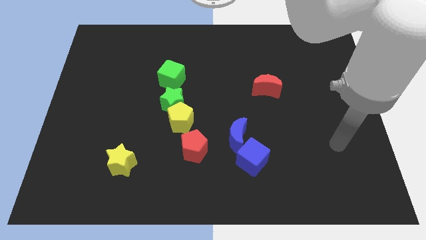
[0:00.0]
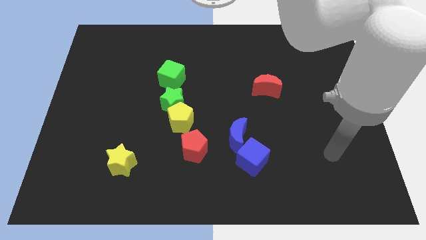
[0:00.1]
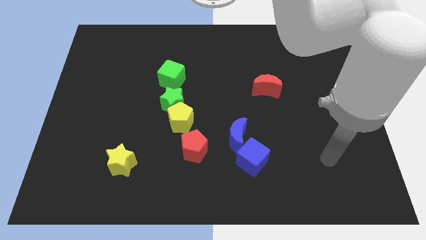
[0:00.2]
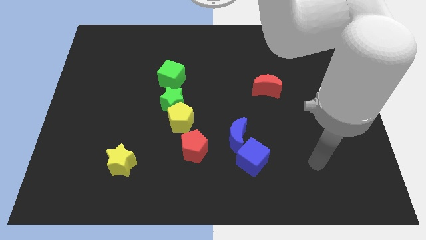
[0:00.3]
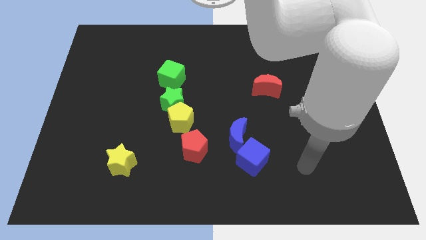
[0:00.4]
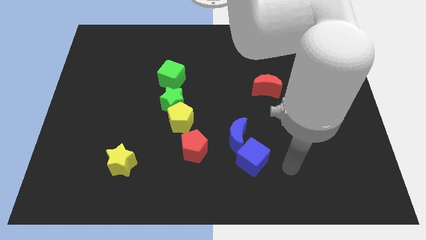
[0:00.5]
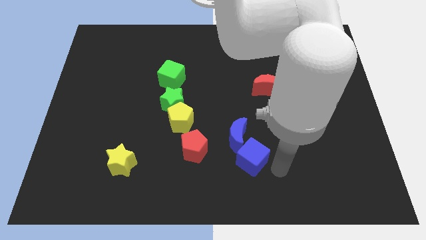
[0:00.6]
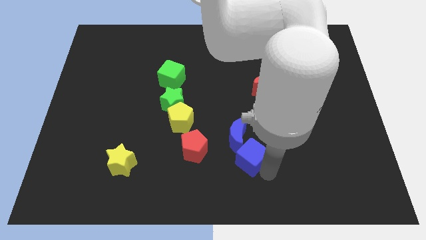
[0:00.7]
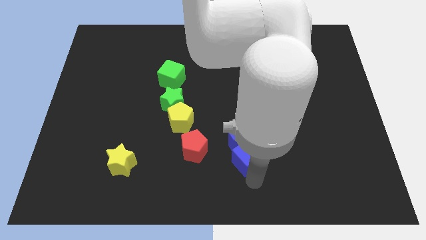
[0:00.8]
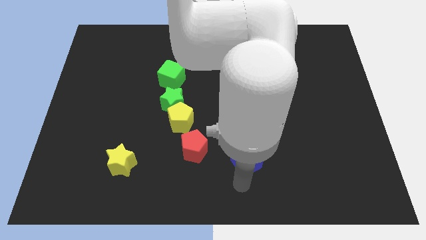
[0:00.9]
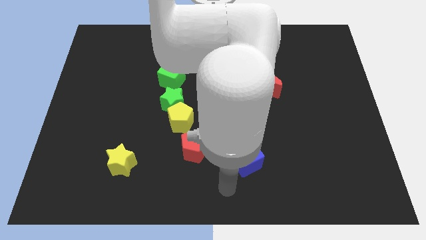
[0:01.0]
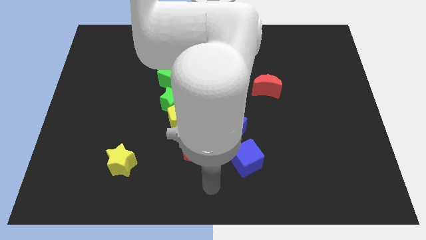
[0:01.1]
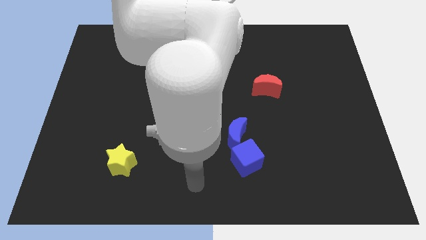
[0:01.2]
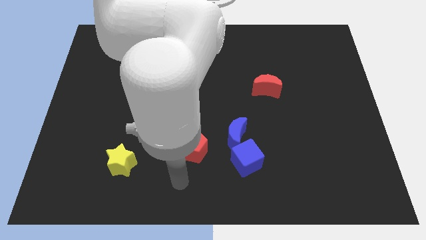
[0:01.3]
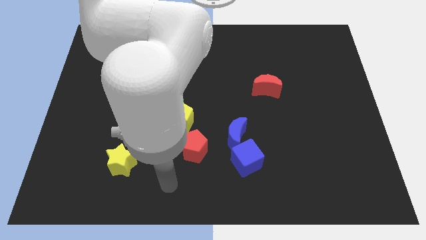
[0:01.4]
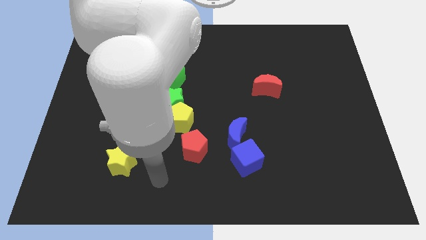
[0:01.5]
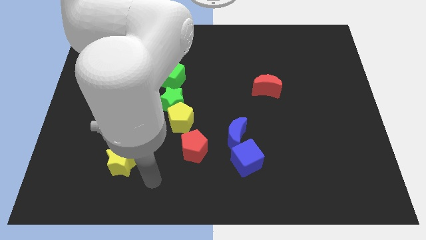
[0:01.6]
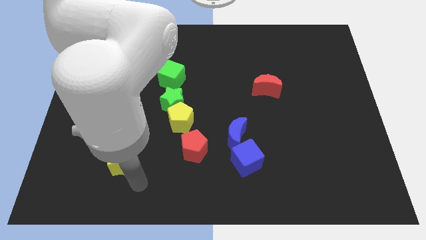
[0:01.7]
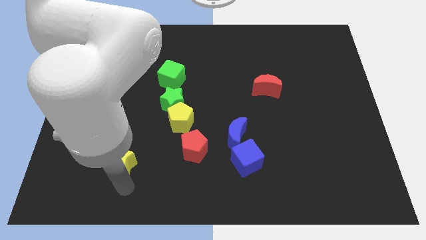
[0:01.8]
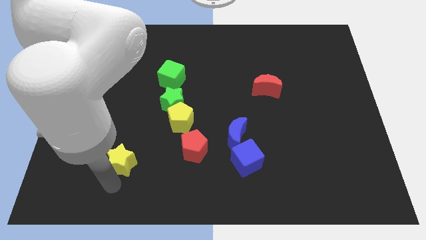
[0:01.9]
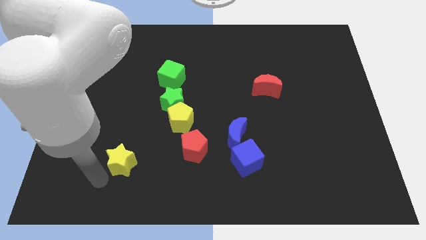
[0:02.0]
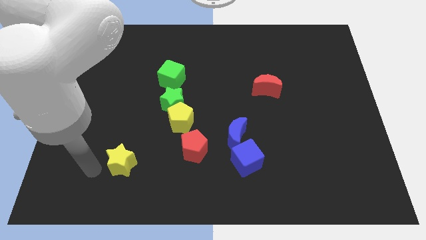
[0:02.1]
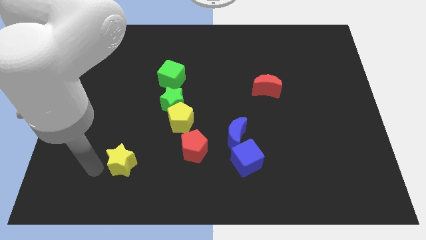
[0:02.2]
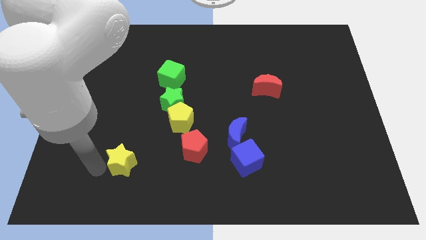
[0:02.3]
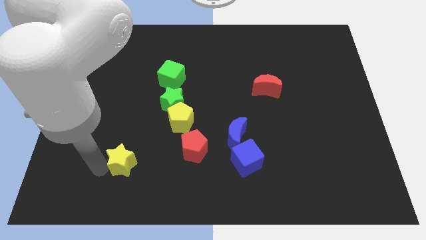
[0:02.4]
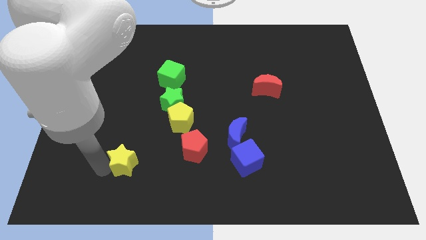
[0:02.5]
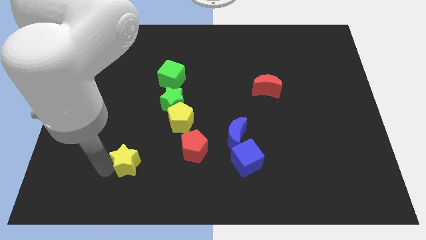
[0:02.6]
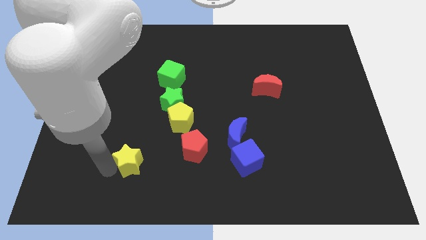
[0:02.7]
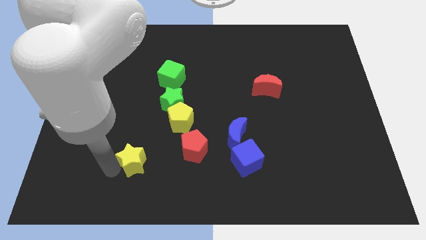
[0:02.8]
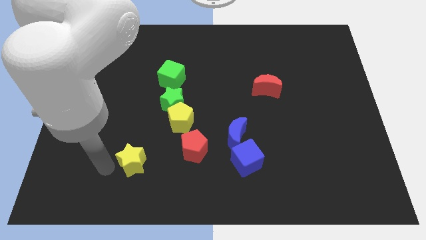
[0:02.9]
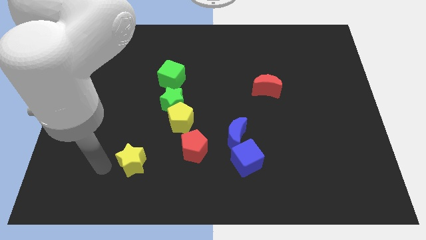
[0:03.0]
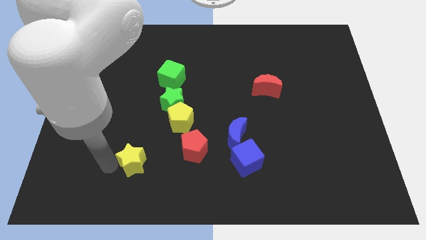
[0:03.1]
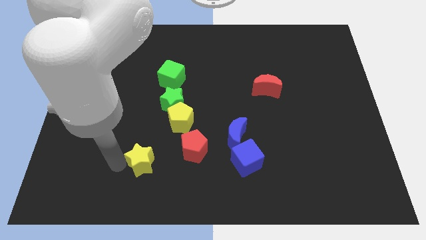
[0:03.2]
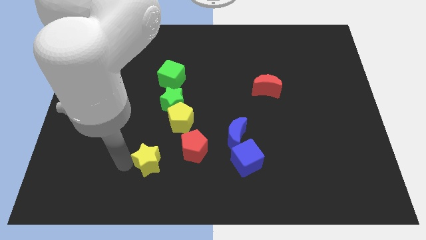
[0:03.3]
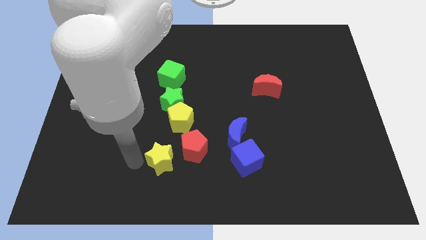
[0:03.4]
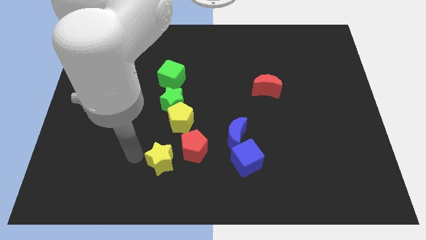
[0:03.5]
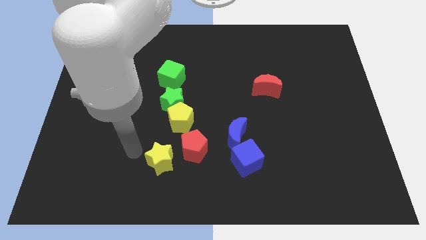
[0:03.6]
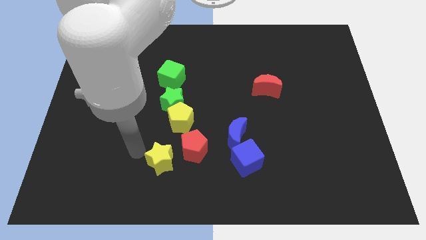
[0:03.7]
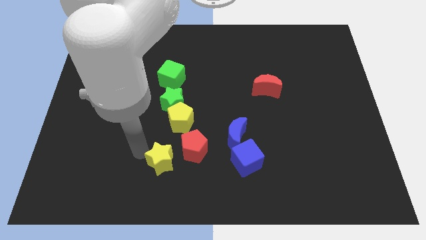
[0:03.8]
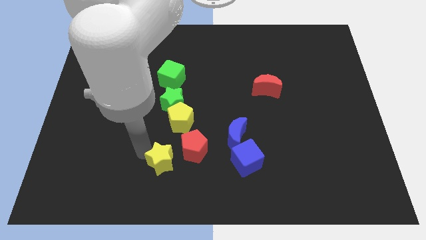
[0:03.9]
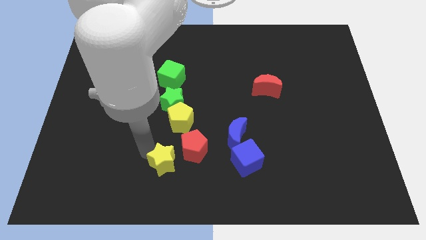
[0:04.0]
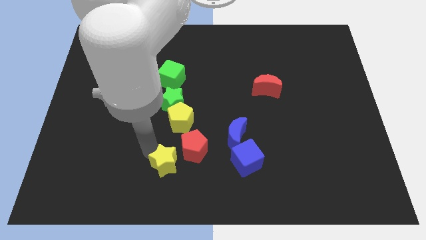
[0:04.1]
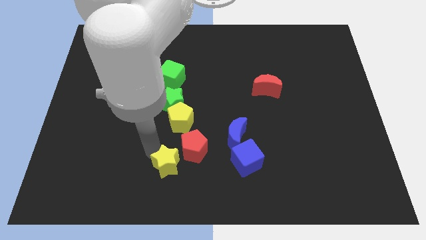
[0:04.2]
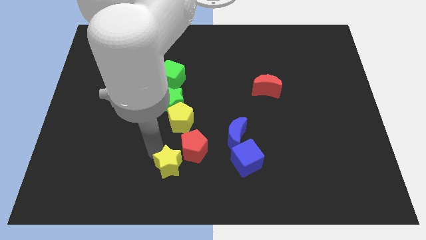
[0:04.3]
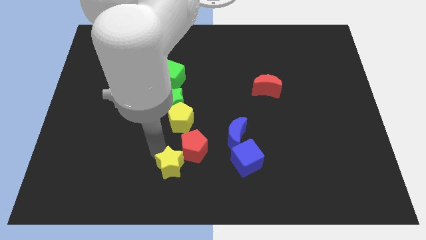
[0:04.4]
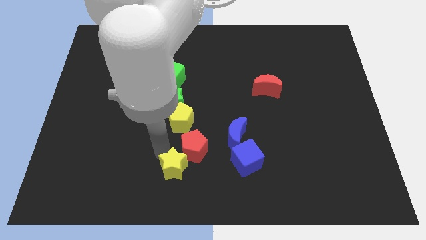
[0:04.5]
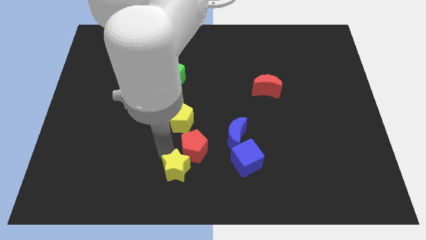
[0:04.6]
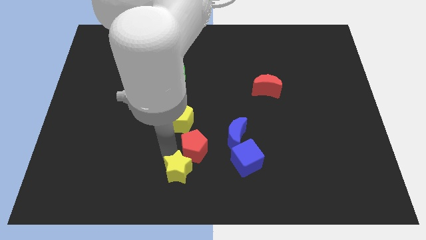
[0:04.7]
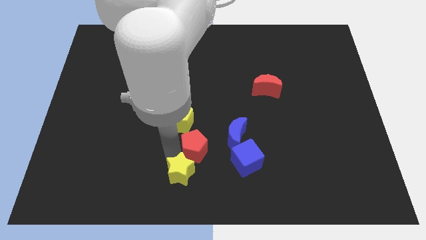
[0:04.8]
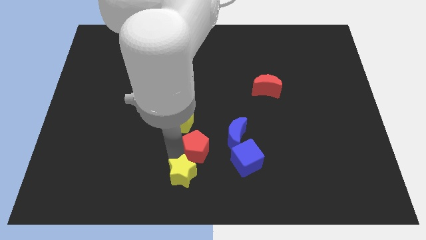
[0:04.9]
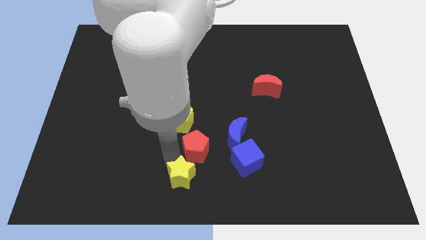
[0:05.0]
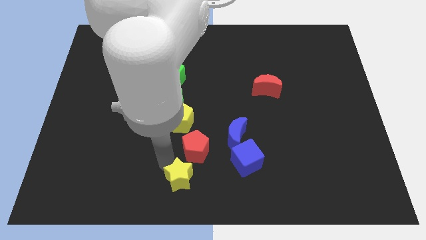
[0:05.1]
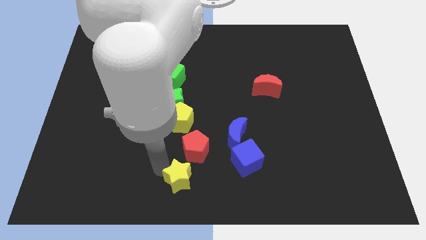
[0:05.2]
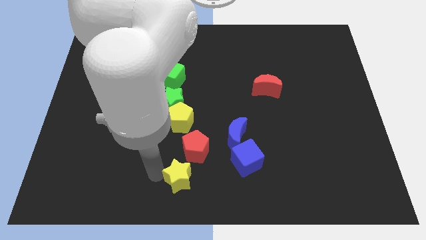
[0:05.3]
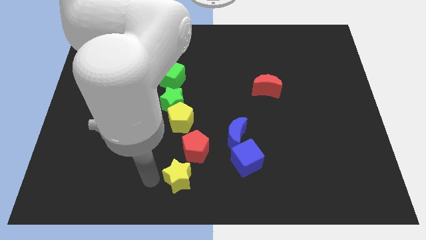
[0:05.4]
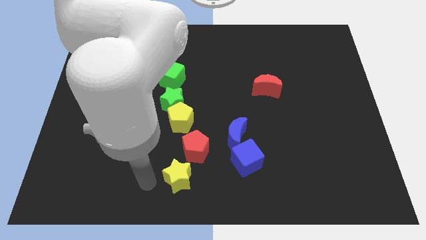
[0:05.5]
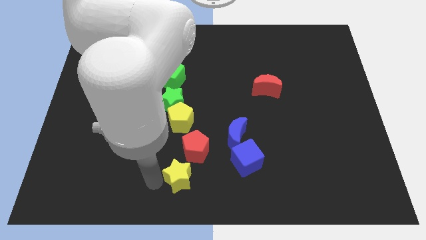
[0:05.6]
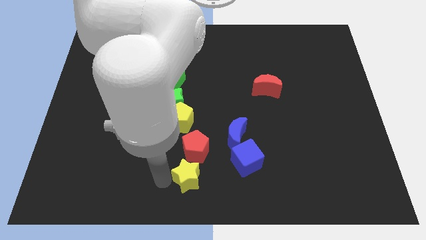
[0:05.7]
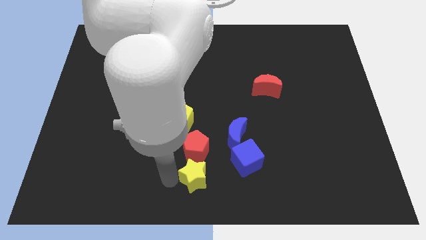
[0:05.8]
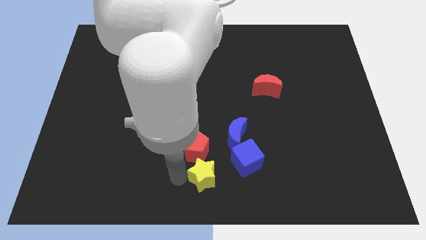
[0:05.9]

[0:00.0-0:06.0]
push the yellow star diagonally down and to the left of the blue cube

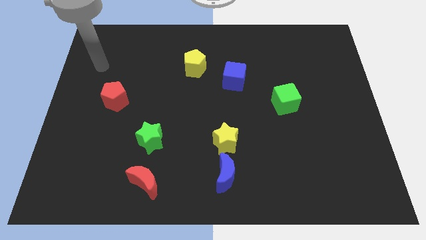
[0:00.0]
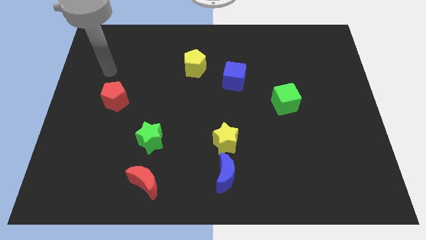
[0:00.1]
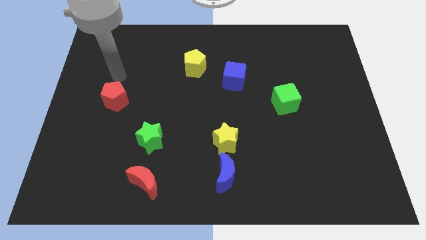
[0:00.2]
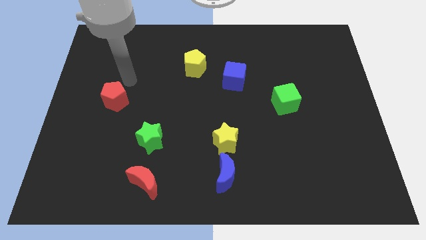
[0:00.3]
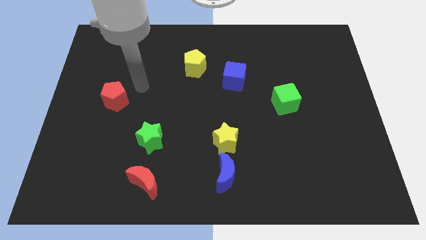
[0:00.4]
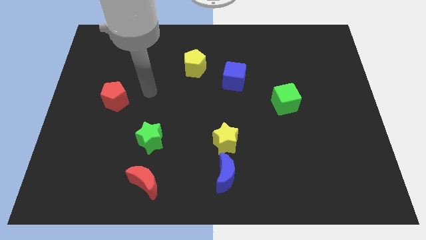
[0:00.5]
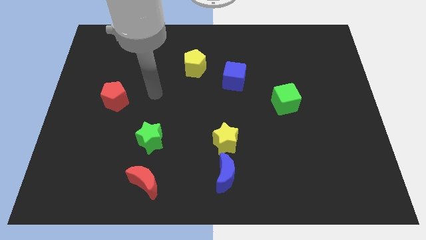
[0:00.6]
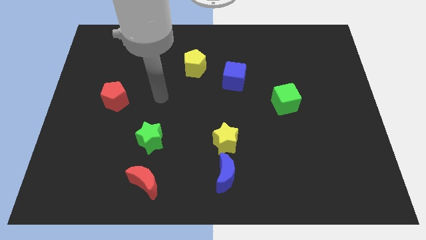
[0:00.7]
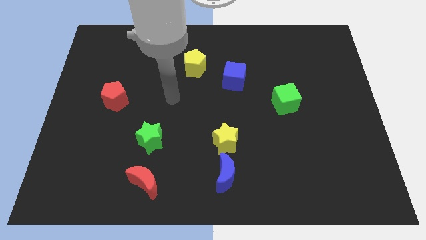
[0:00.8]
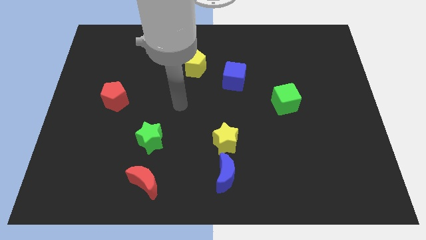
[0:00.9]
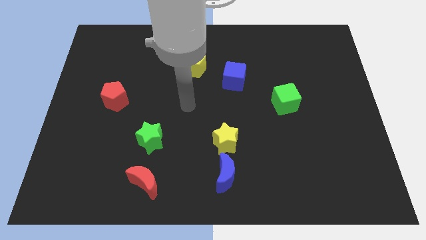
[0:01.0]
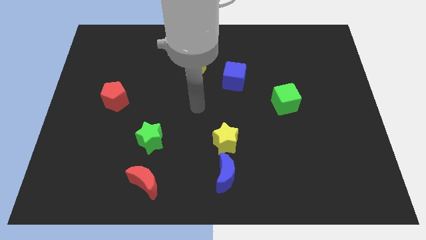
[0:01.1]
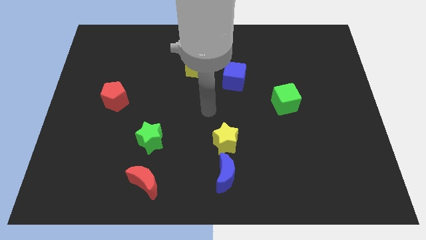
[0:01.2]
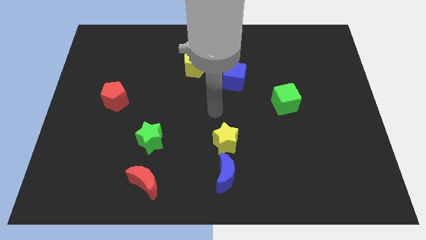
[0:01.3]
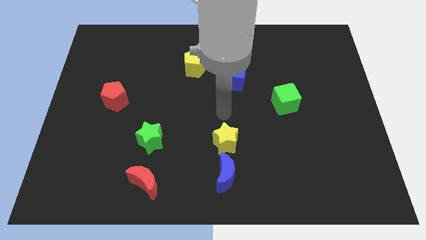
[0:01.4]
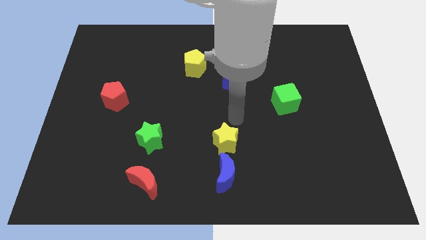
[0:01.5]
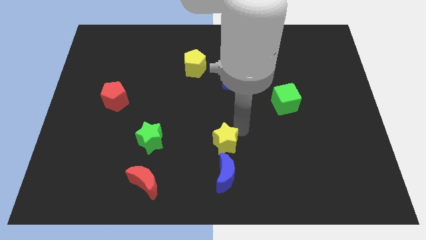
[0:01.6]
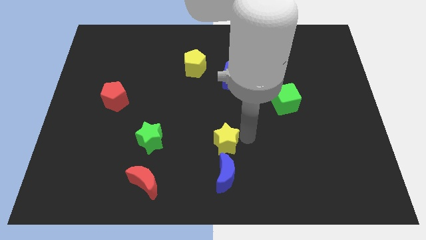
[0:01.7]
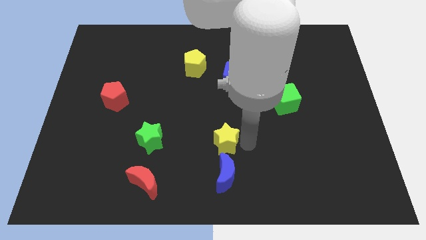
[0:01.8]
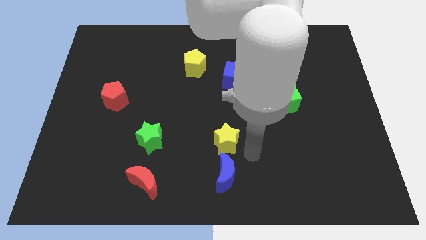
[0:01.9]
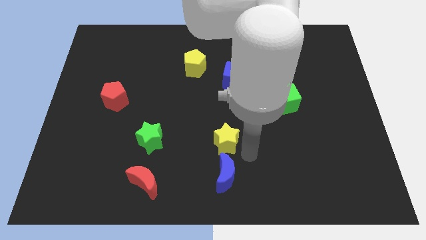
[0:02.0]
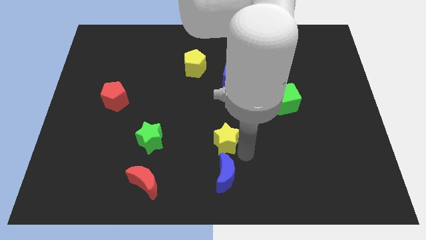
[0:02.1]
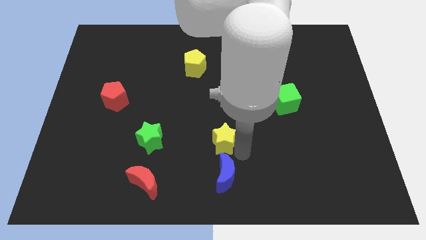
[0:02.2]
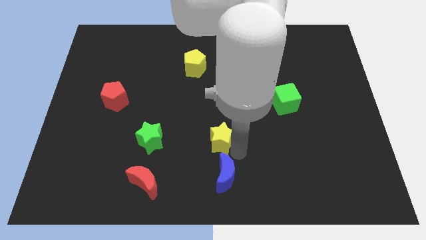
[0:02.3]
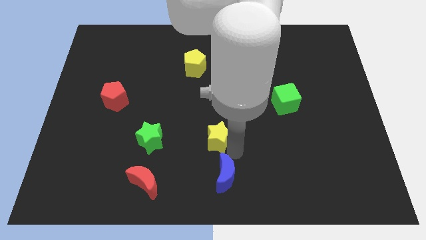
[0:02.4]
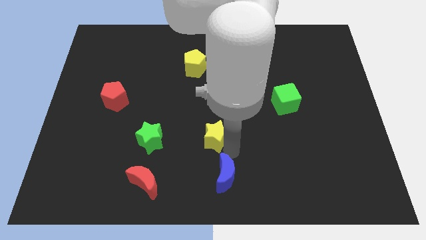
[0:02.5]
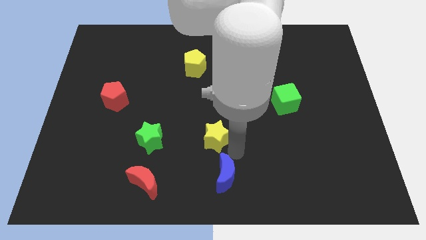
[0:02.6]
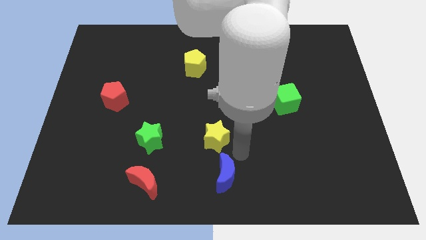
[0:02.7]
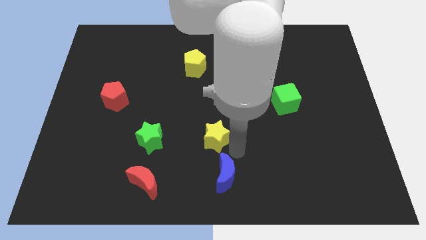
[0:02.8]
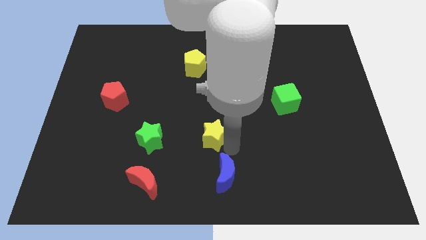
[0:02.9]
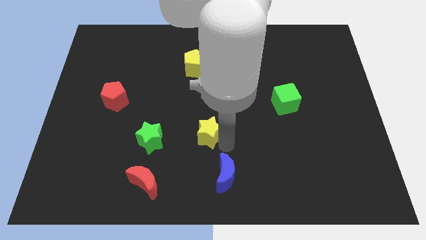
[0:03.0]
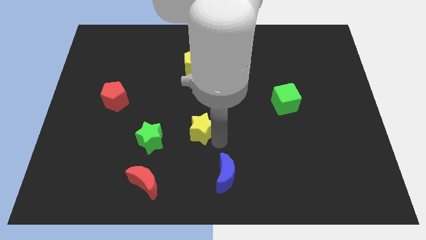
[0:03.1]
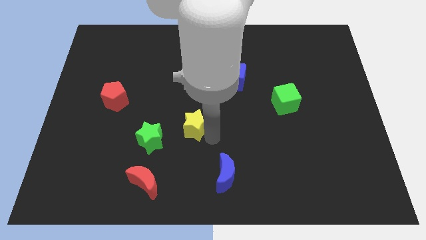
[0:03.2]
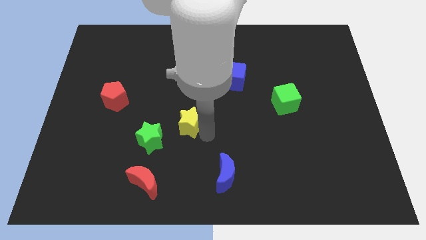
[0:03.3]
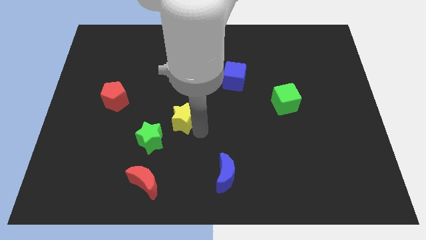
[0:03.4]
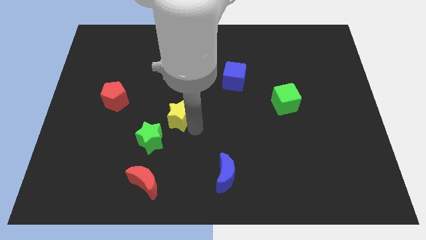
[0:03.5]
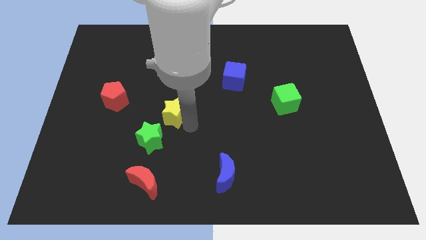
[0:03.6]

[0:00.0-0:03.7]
put the yellow star to the top side of the green star
